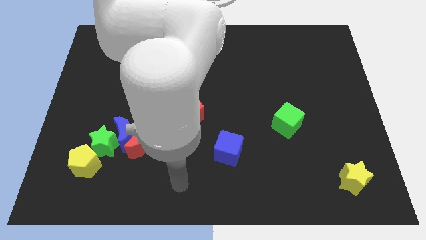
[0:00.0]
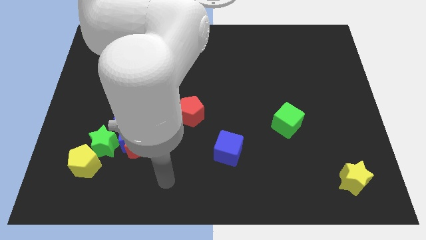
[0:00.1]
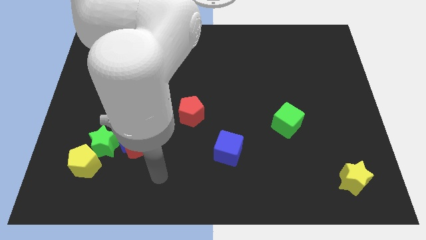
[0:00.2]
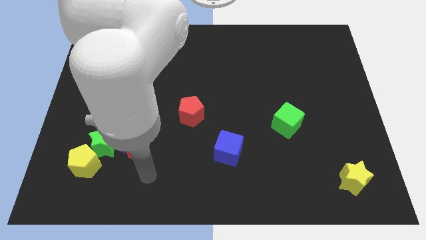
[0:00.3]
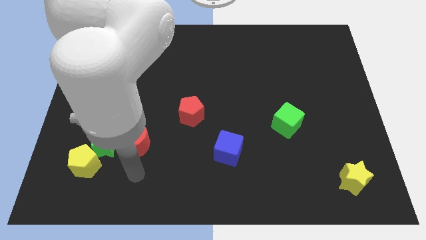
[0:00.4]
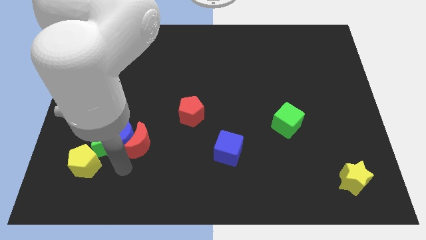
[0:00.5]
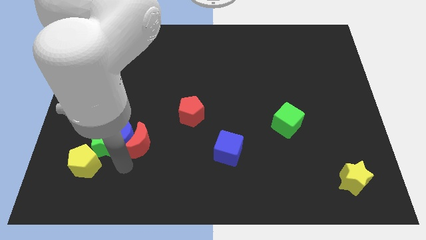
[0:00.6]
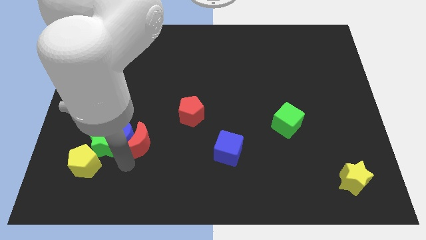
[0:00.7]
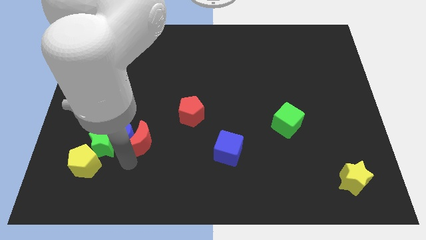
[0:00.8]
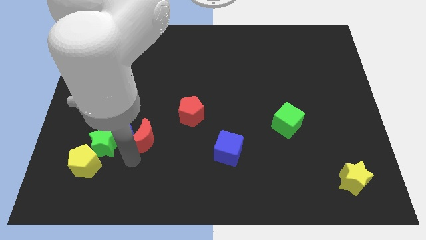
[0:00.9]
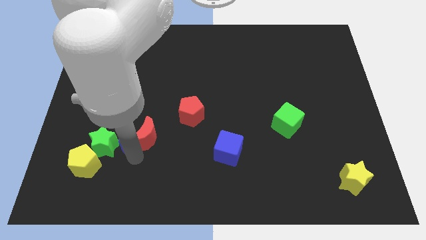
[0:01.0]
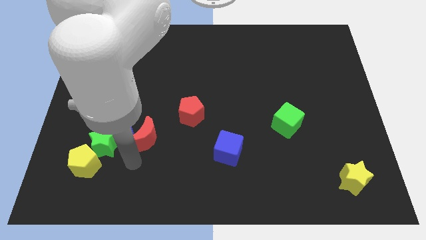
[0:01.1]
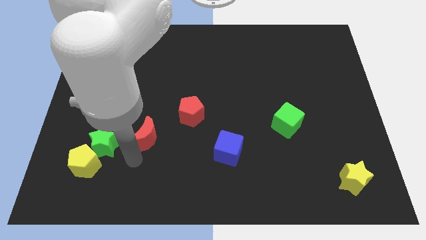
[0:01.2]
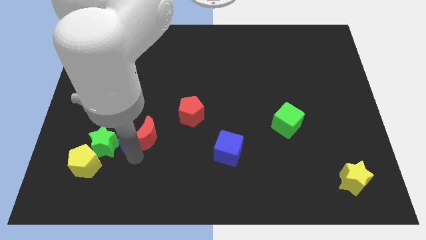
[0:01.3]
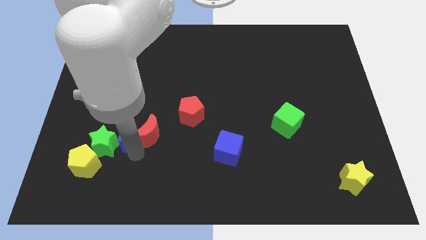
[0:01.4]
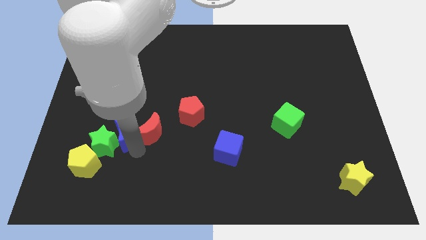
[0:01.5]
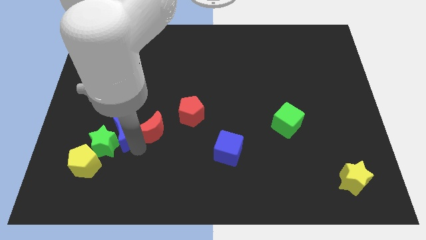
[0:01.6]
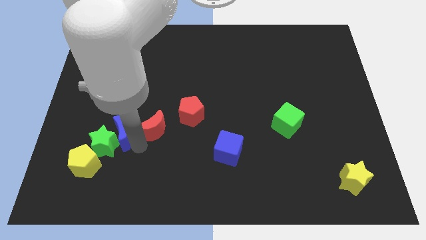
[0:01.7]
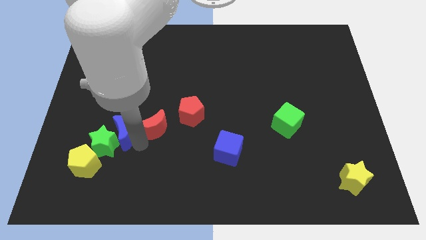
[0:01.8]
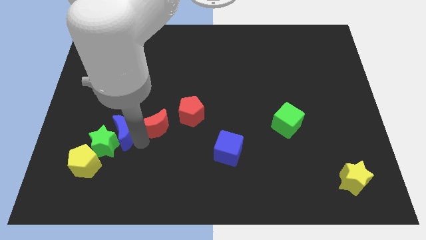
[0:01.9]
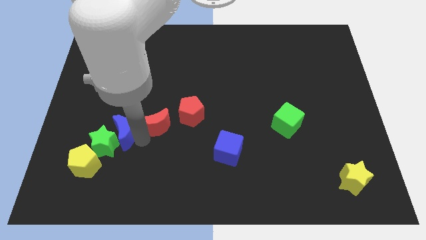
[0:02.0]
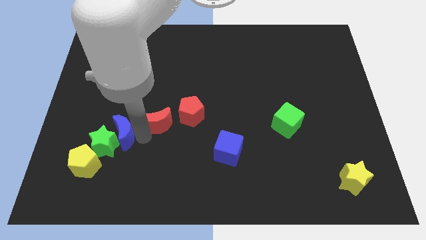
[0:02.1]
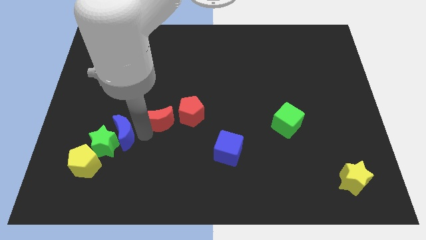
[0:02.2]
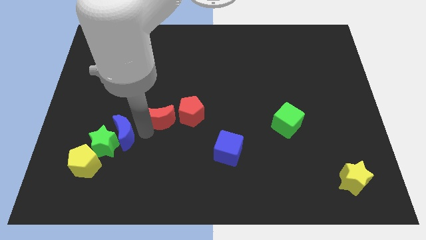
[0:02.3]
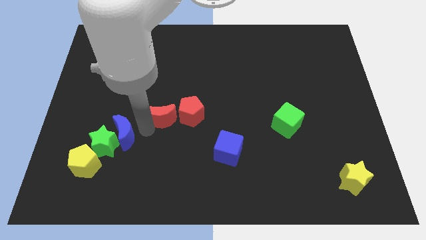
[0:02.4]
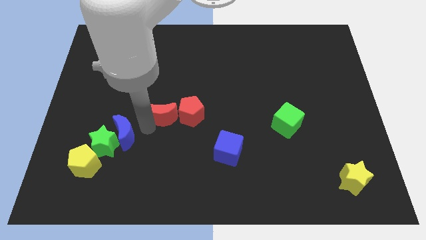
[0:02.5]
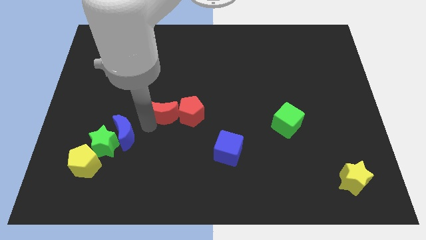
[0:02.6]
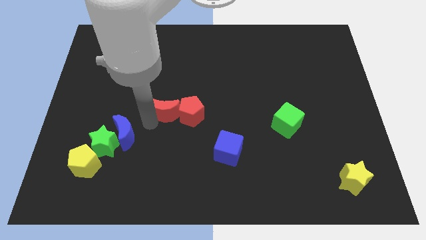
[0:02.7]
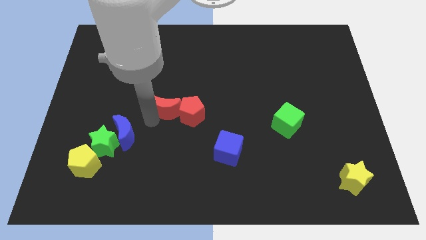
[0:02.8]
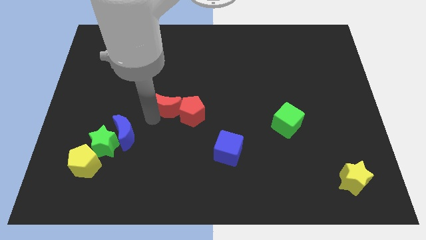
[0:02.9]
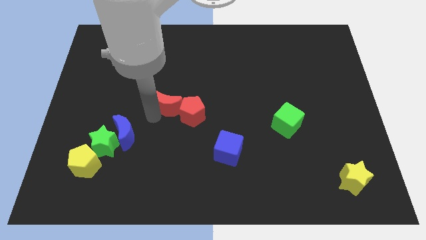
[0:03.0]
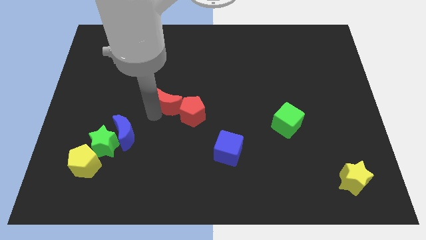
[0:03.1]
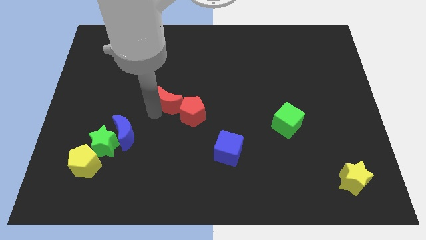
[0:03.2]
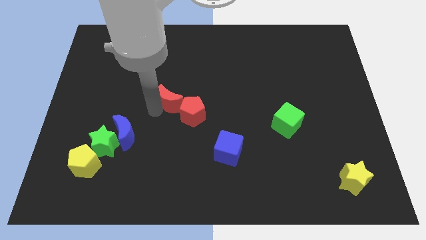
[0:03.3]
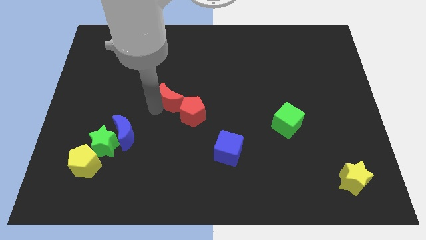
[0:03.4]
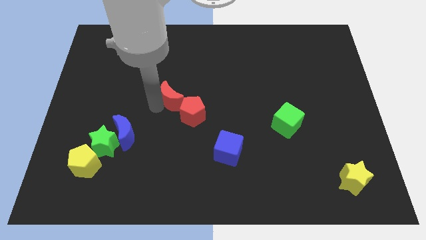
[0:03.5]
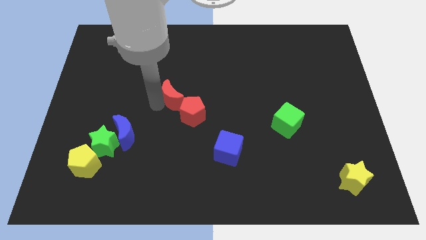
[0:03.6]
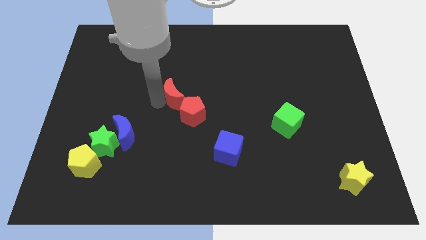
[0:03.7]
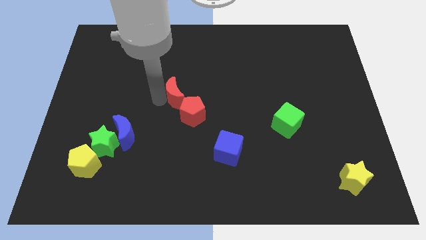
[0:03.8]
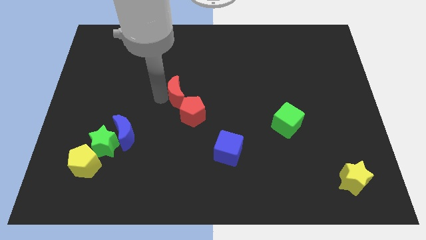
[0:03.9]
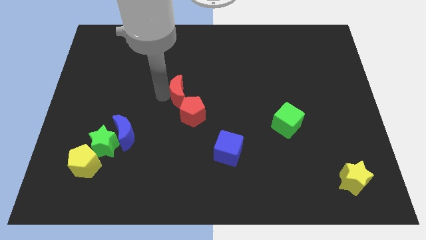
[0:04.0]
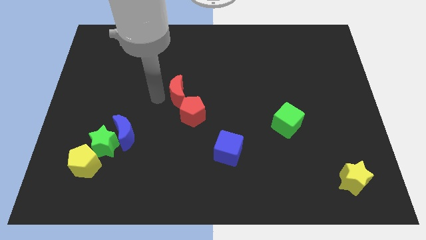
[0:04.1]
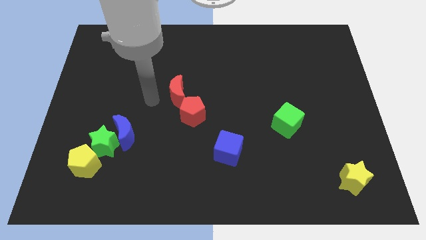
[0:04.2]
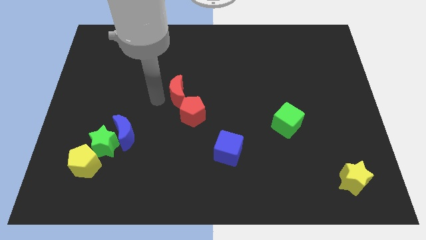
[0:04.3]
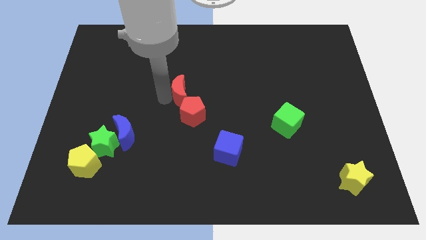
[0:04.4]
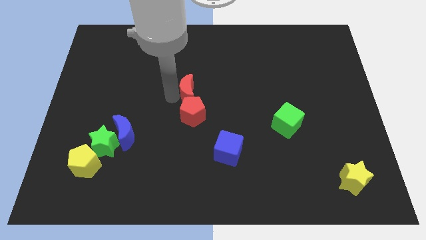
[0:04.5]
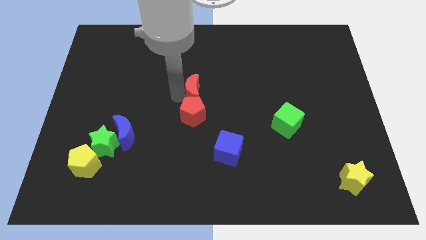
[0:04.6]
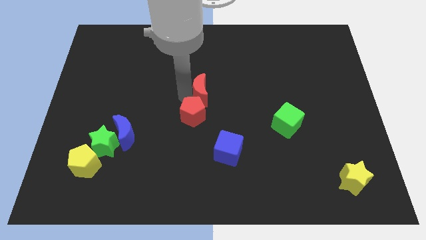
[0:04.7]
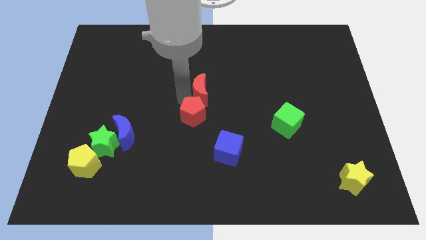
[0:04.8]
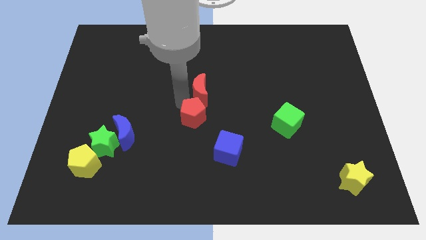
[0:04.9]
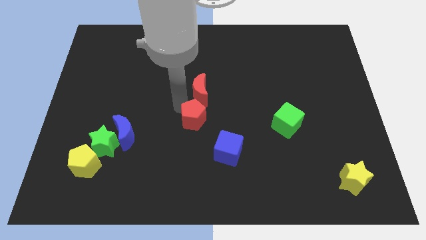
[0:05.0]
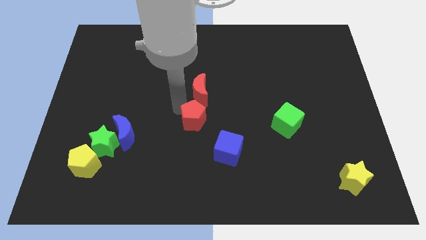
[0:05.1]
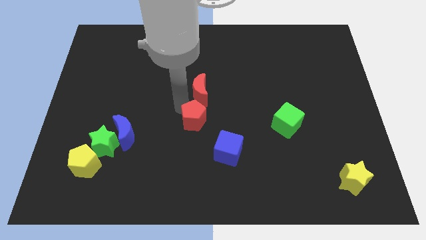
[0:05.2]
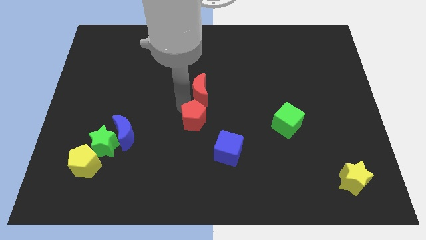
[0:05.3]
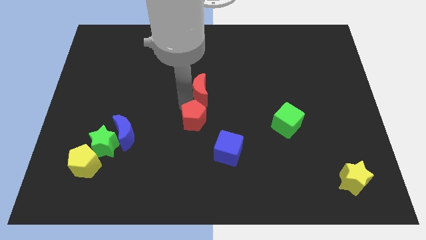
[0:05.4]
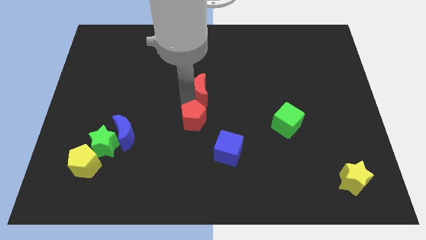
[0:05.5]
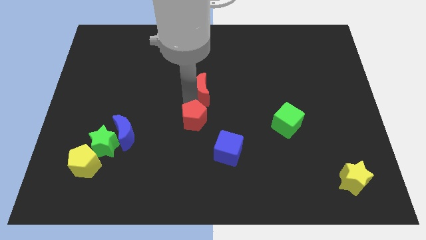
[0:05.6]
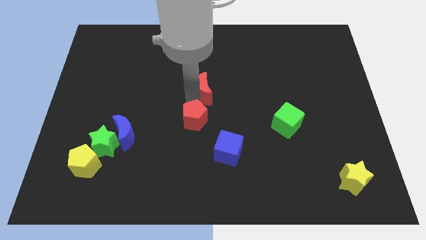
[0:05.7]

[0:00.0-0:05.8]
slide the red moon diagonally upwards and right

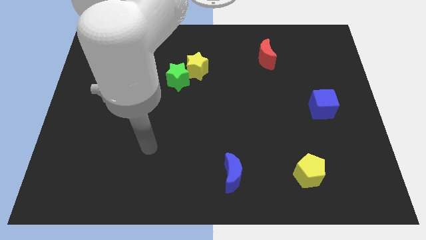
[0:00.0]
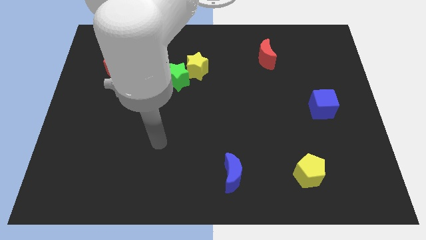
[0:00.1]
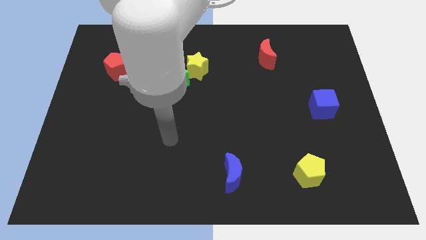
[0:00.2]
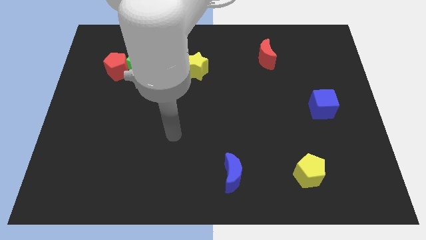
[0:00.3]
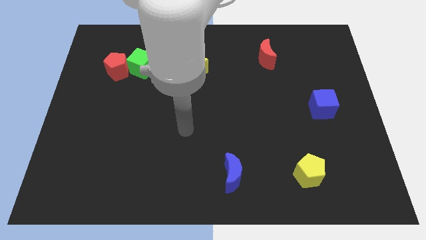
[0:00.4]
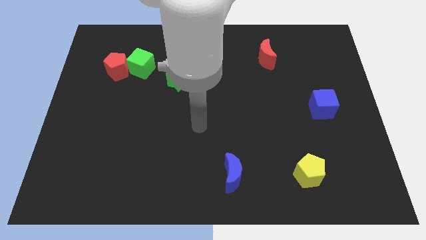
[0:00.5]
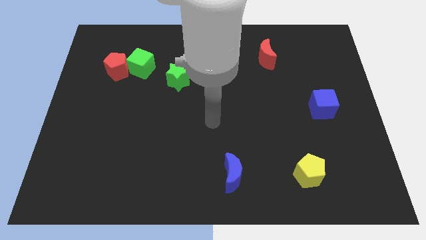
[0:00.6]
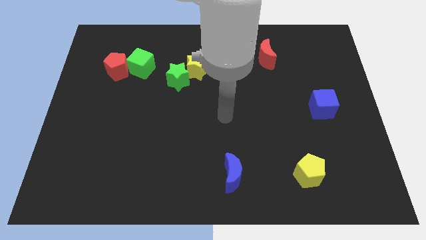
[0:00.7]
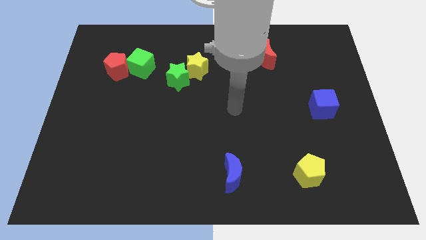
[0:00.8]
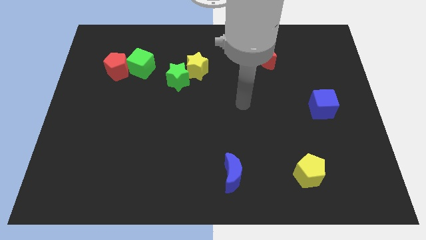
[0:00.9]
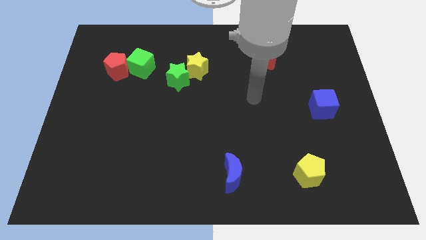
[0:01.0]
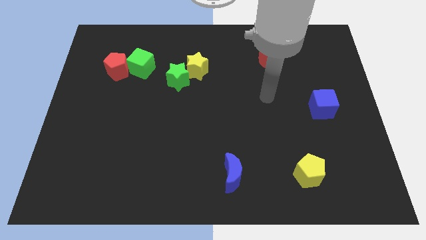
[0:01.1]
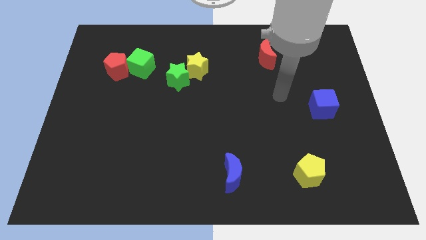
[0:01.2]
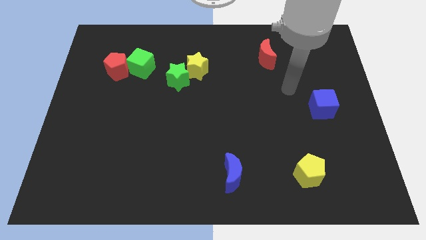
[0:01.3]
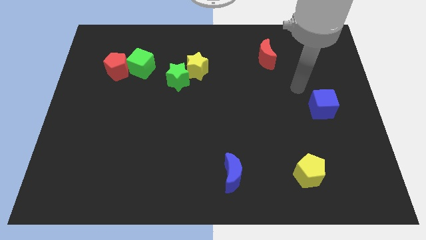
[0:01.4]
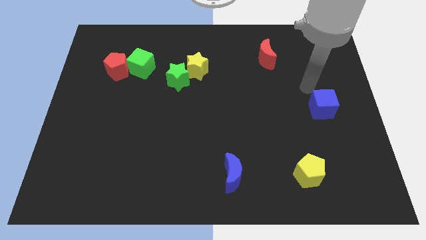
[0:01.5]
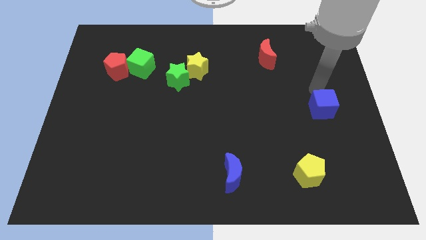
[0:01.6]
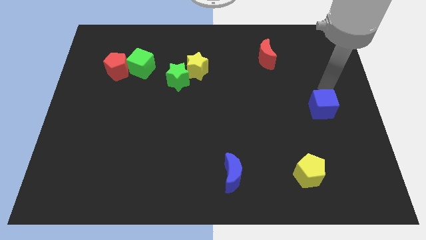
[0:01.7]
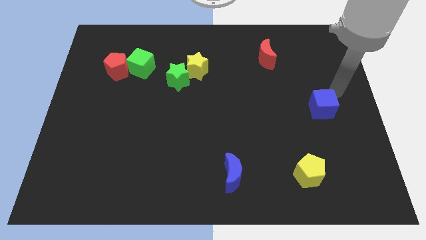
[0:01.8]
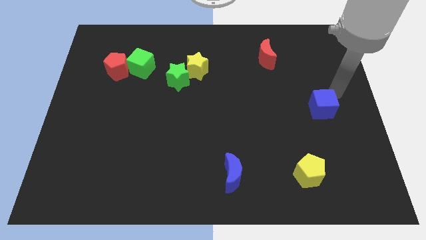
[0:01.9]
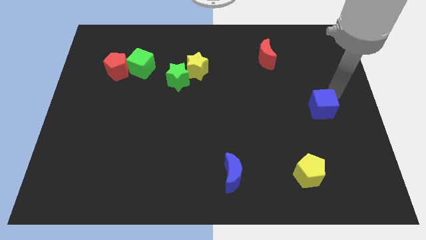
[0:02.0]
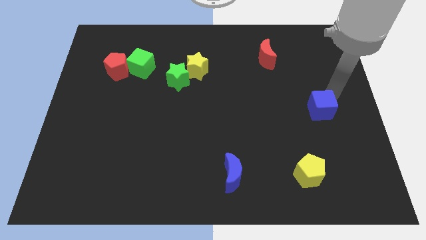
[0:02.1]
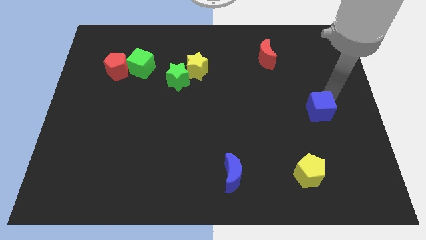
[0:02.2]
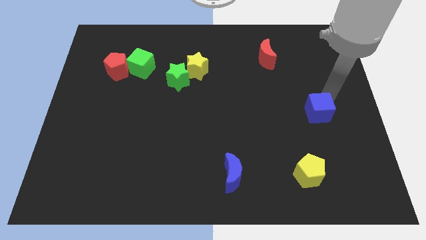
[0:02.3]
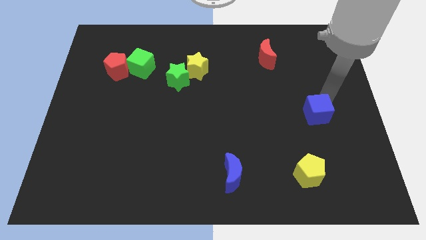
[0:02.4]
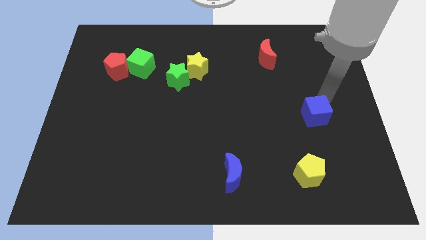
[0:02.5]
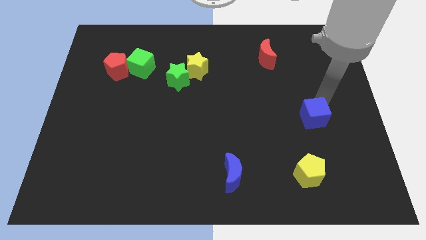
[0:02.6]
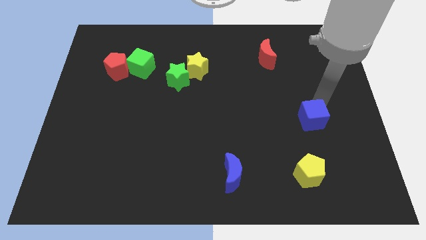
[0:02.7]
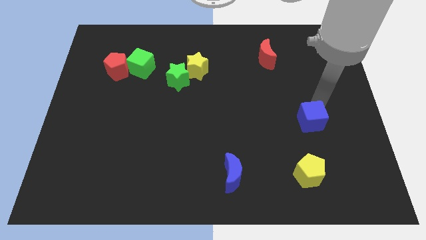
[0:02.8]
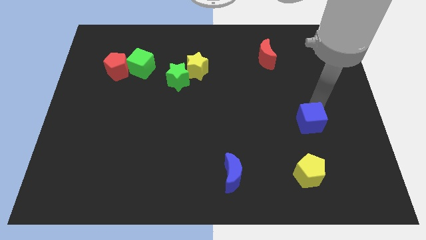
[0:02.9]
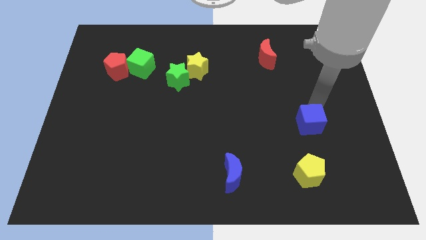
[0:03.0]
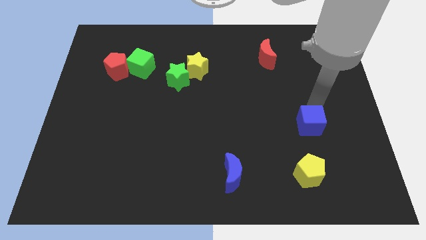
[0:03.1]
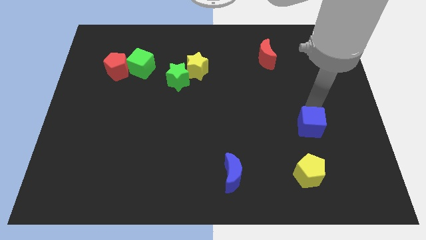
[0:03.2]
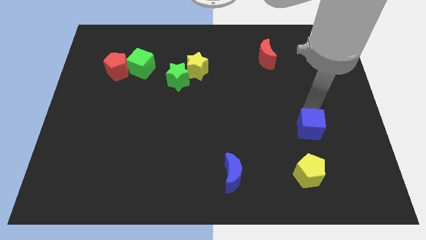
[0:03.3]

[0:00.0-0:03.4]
slightly slide the blue cube downwards and to the left diagonally
